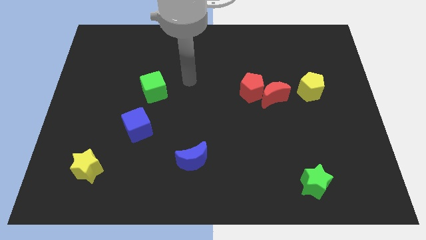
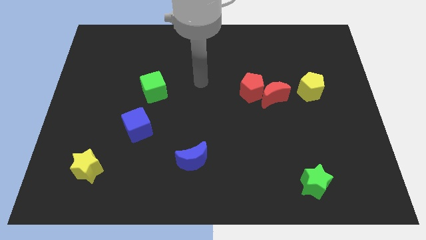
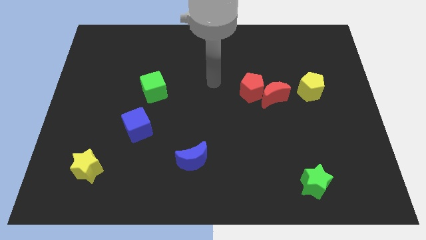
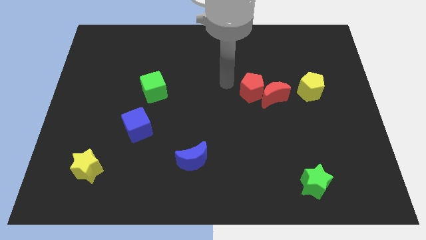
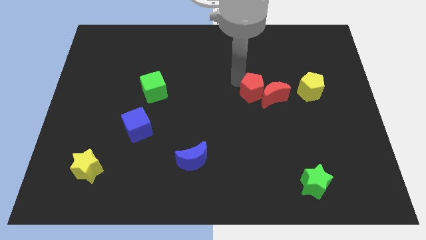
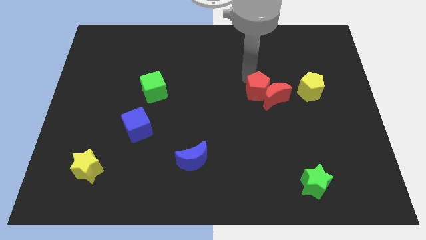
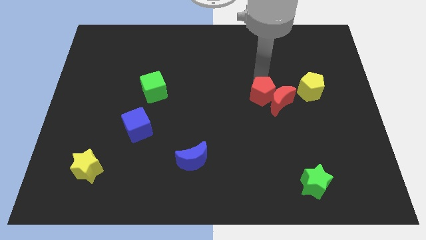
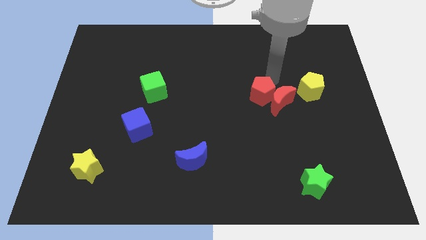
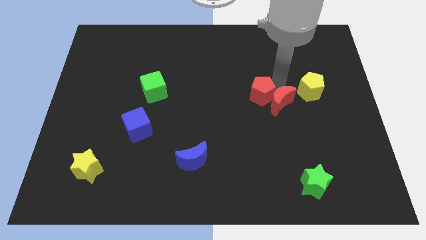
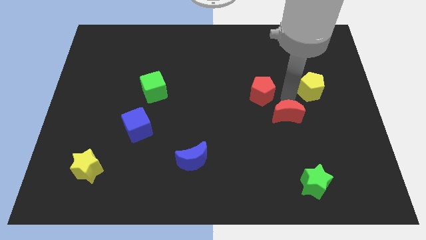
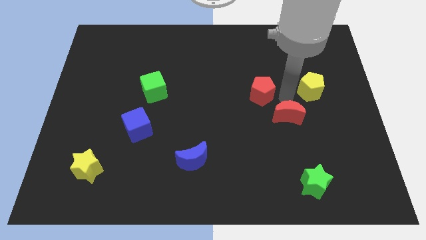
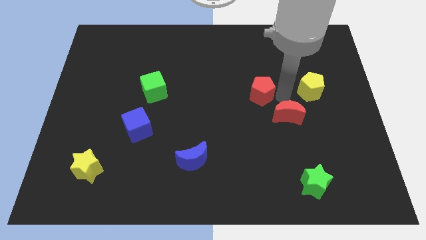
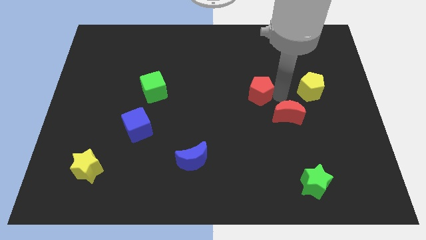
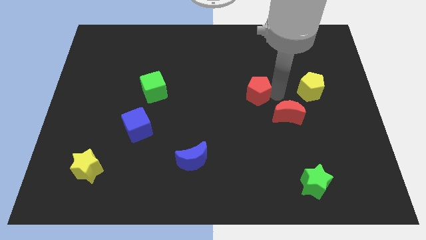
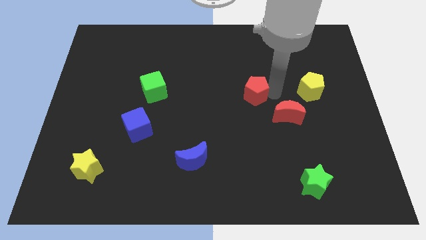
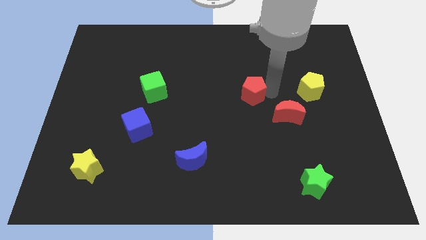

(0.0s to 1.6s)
move the red pentagon away from the red moon

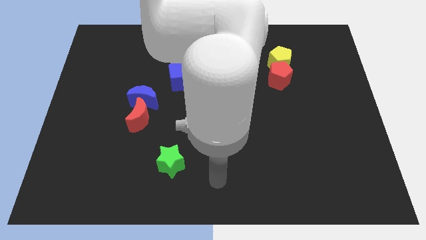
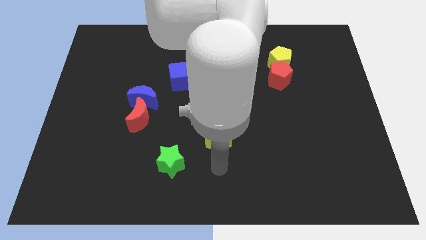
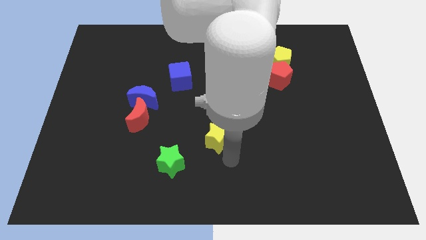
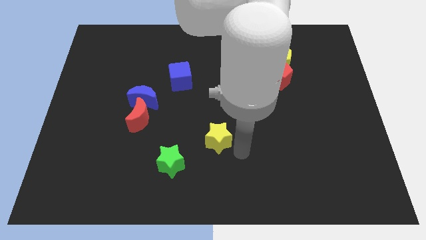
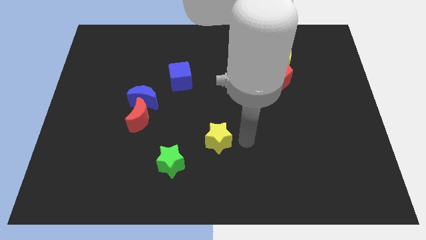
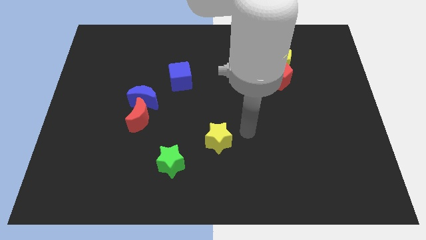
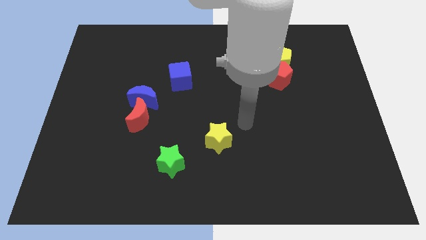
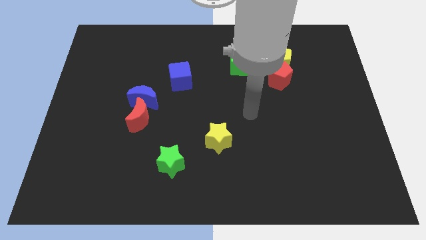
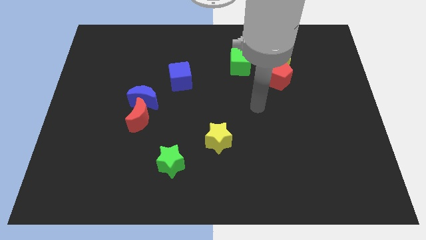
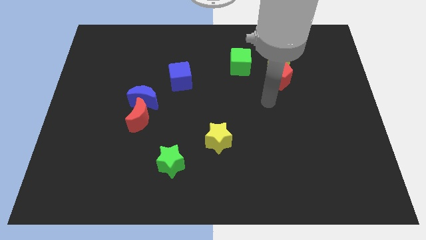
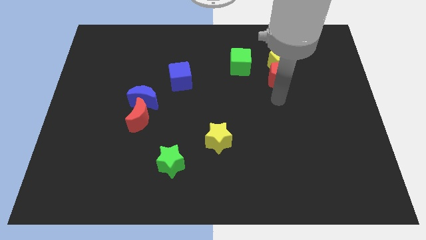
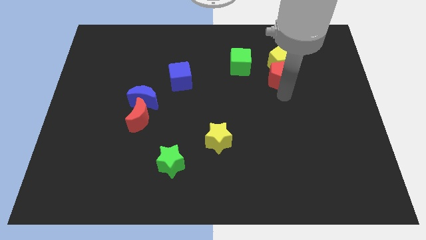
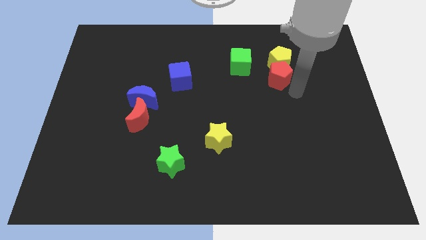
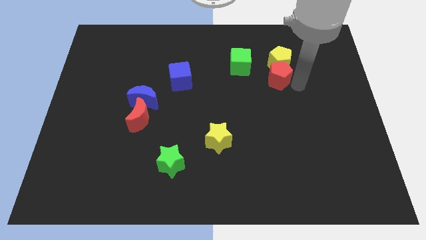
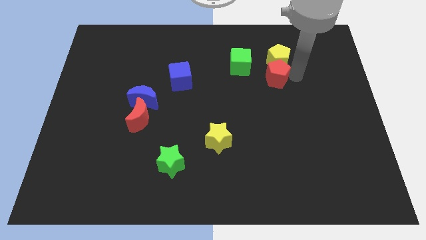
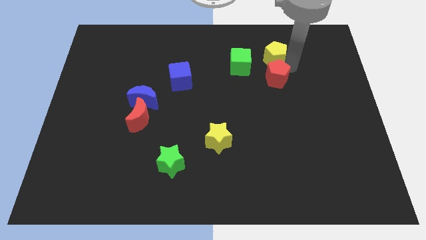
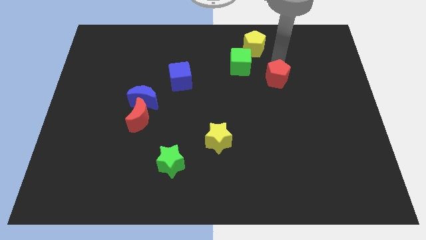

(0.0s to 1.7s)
move the red pentagon away from the yellow pentagon

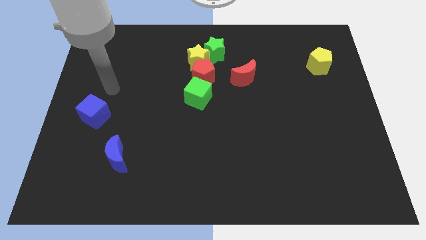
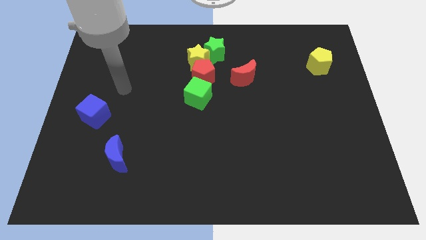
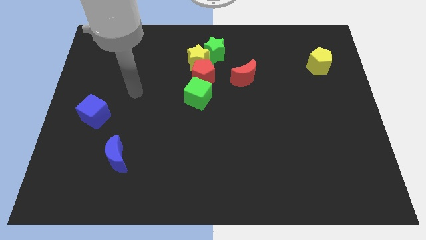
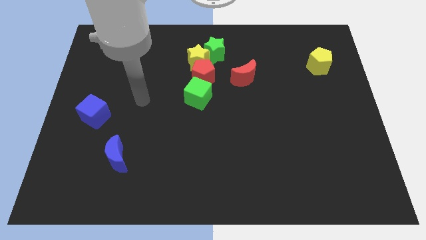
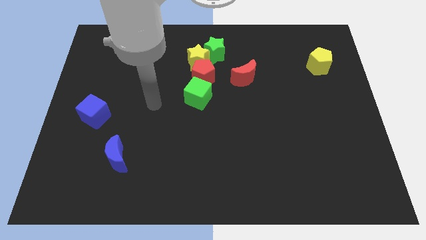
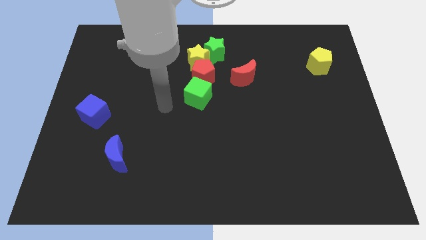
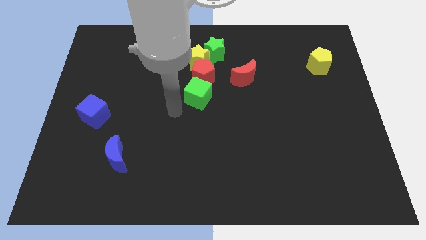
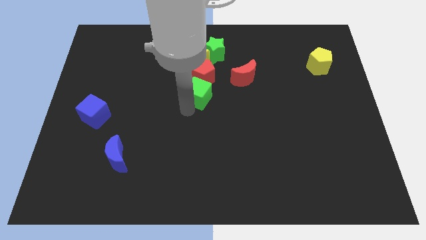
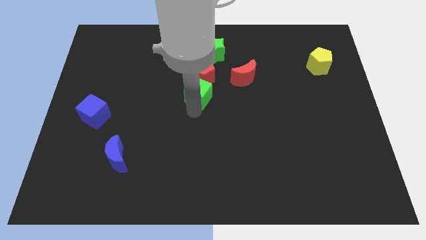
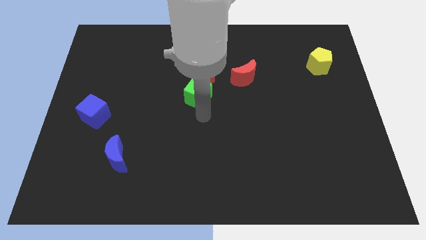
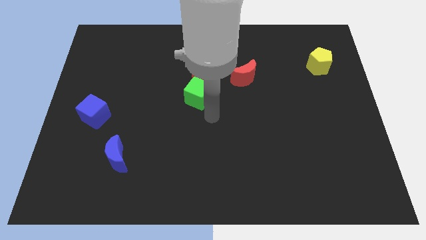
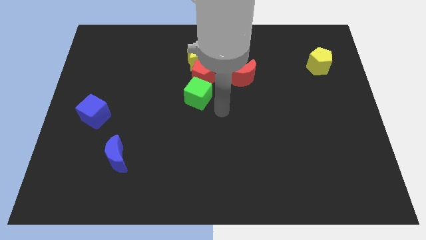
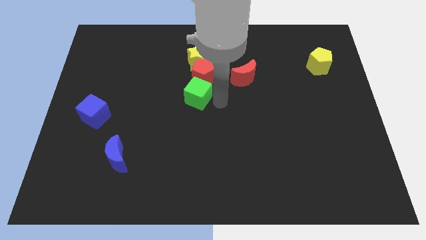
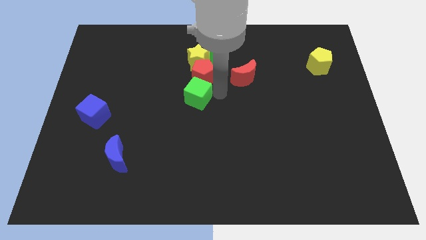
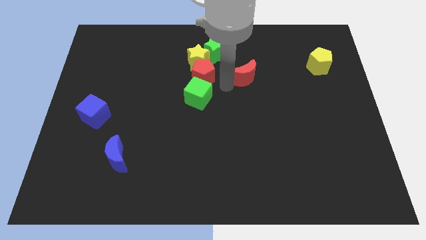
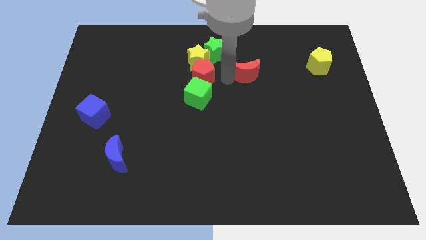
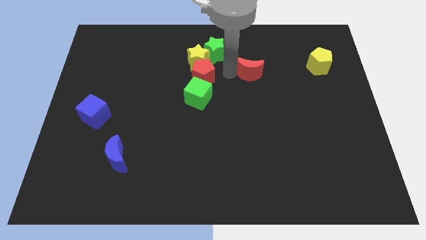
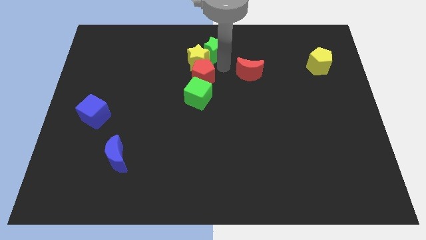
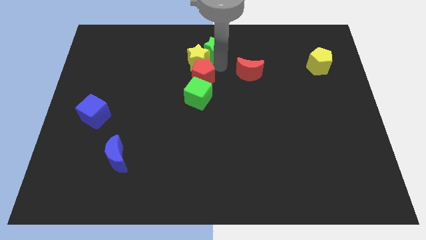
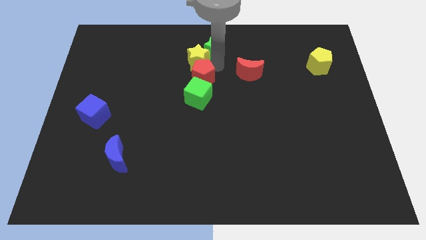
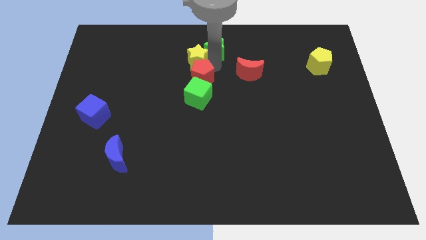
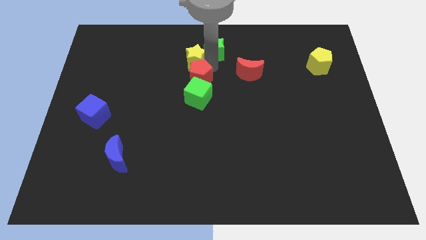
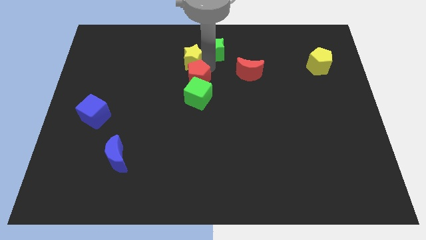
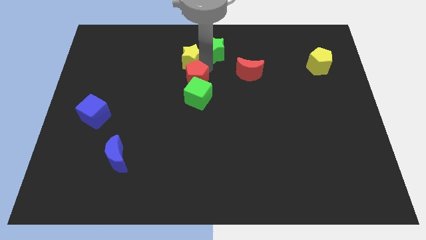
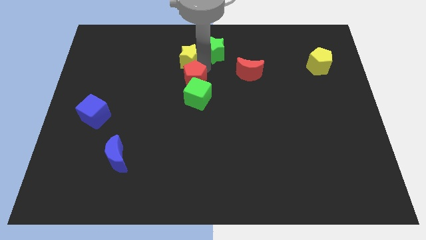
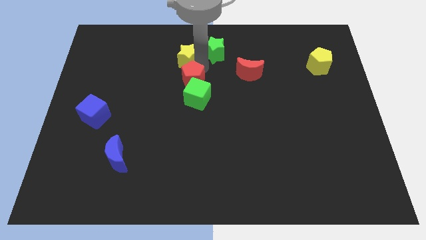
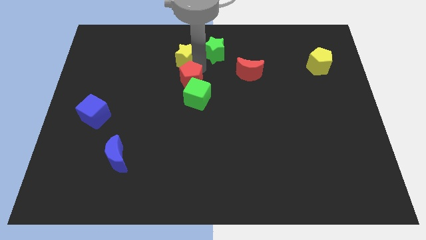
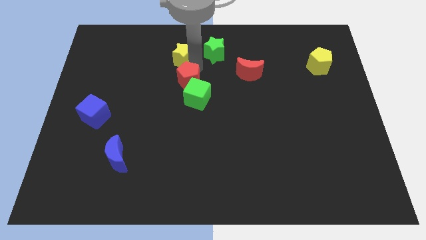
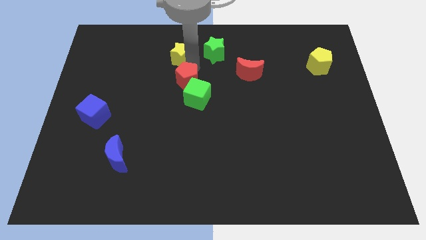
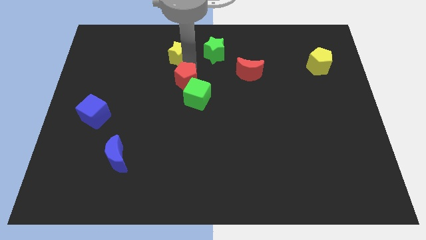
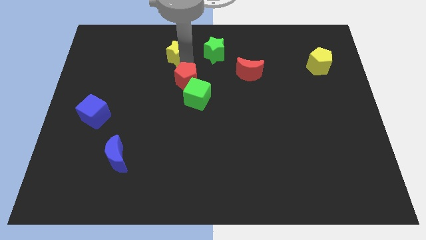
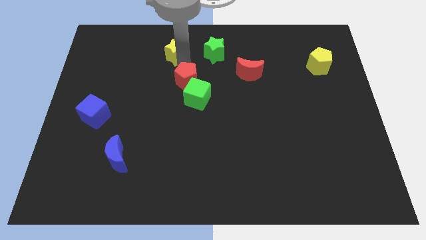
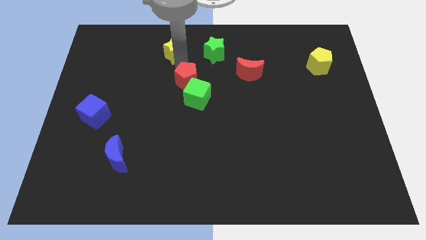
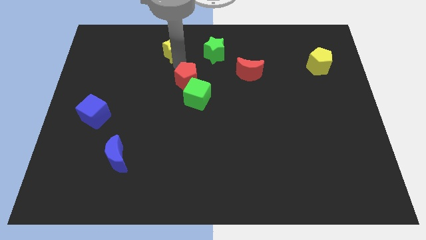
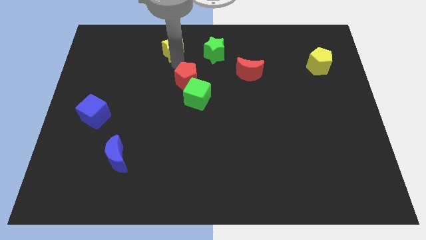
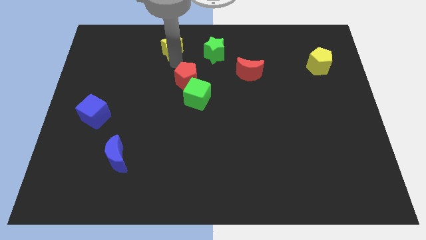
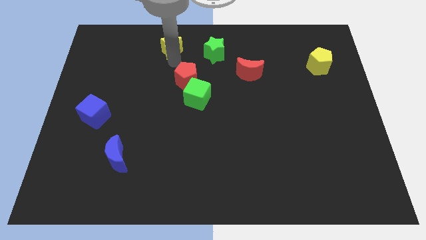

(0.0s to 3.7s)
move the yellow star away from the red pentagon and green star

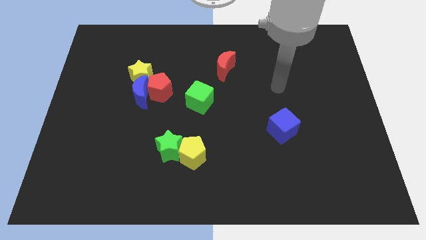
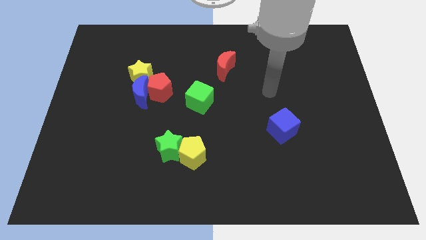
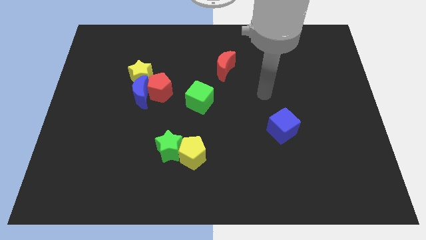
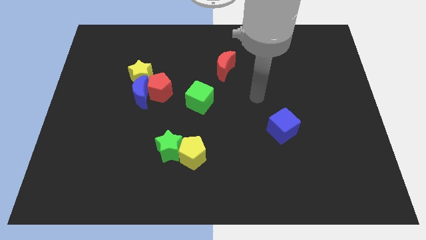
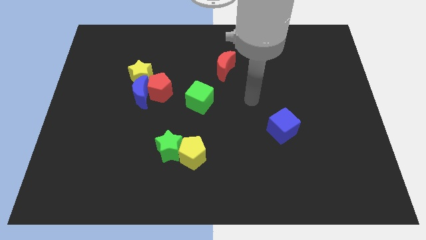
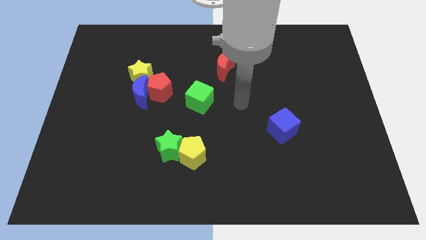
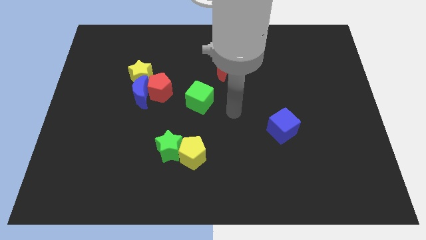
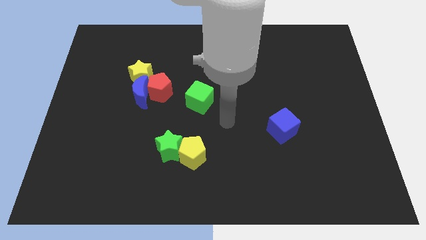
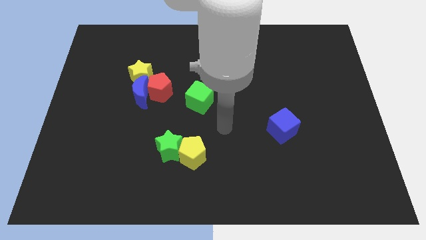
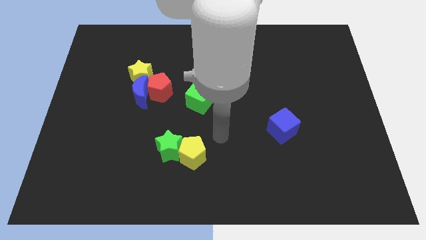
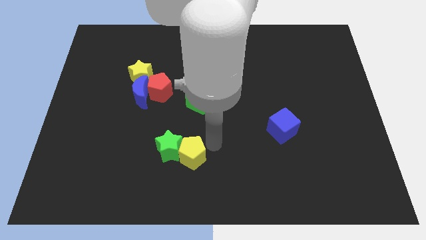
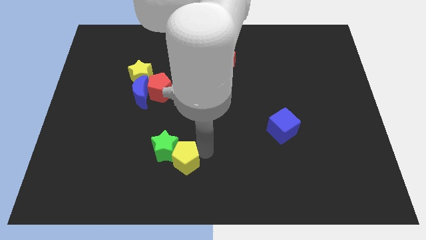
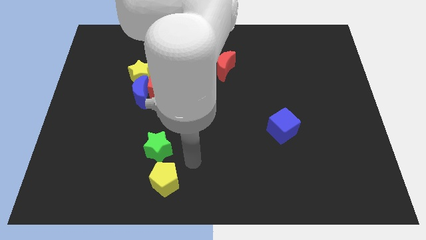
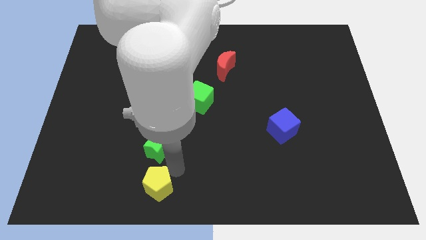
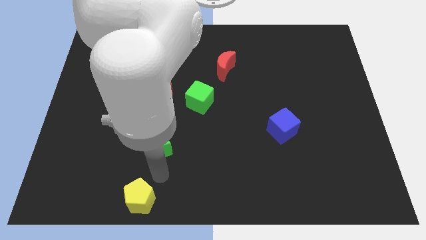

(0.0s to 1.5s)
move the green star away from the yellow pentagon

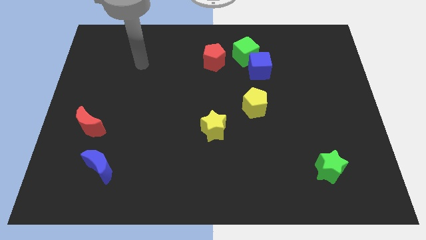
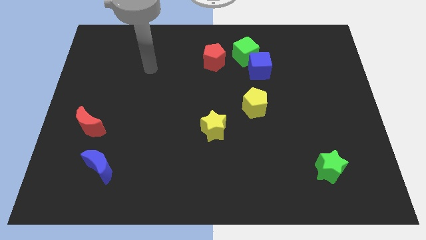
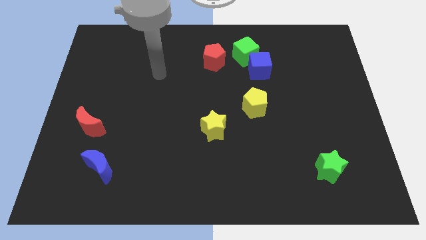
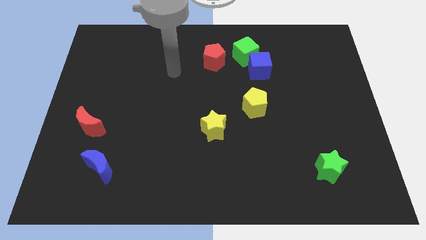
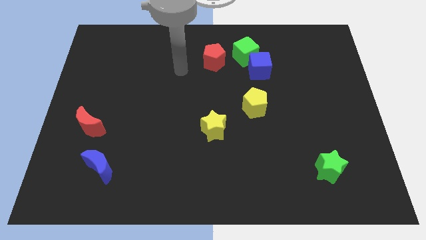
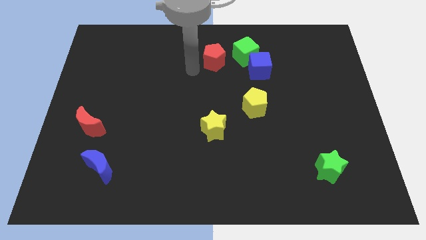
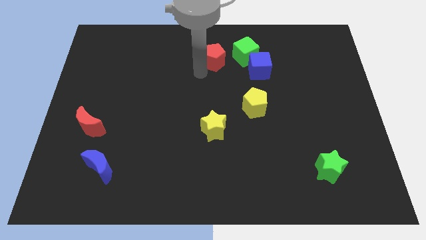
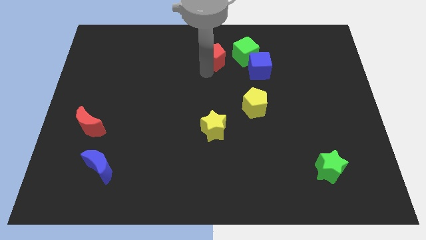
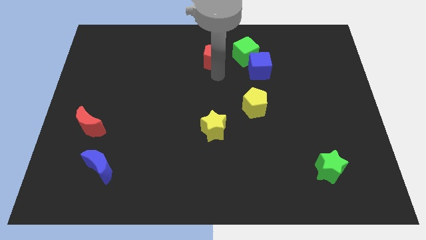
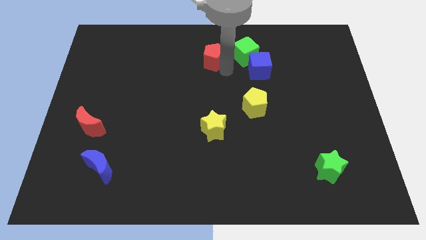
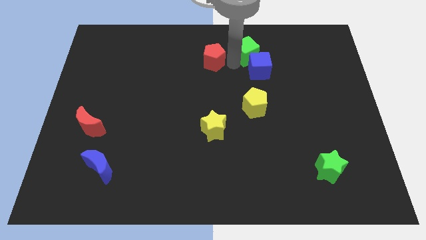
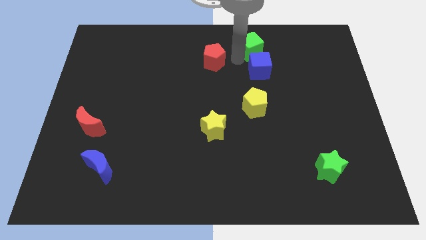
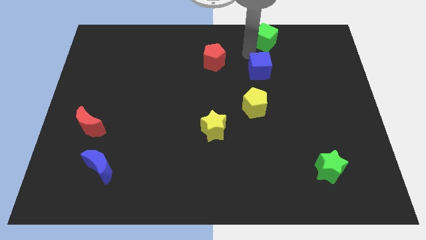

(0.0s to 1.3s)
pull the blue cube apart from the green cube
